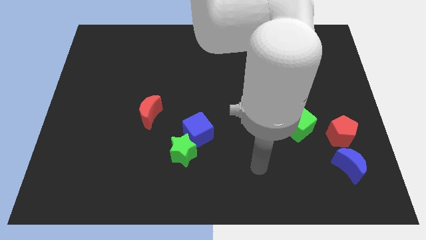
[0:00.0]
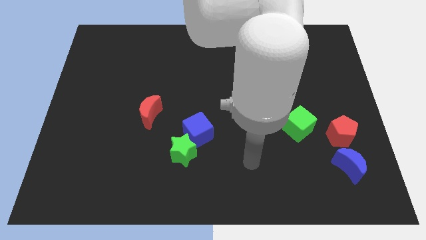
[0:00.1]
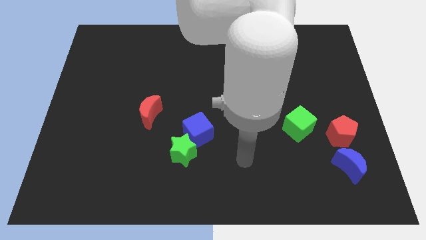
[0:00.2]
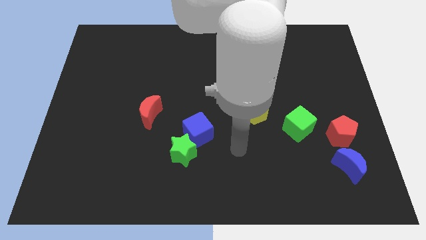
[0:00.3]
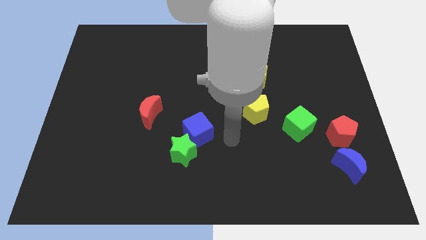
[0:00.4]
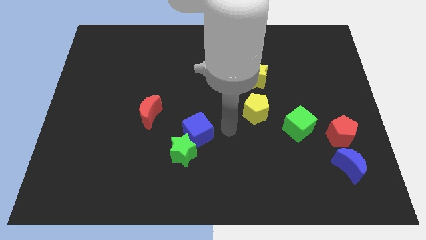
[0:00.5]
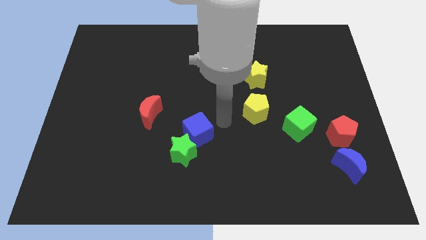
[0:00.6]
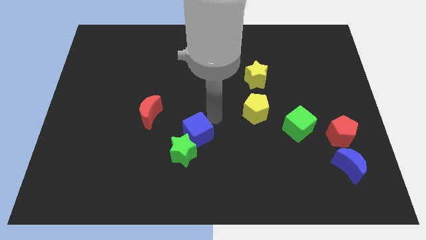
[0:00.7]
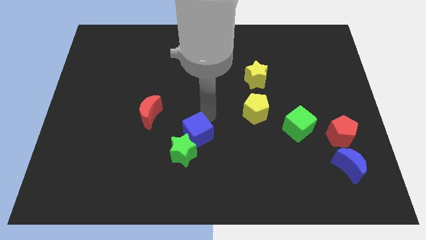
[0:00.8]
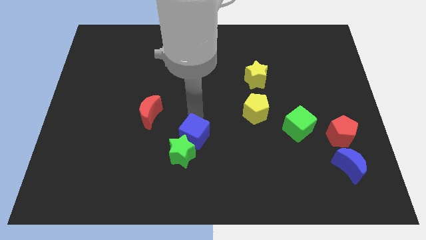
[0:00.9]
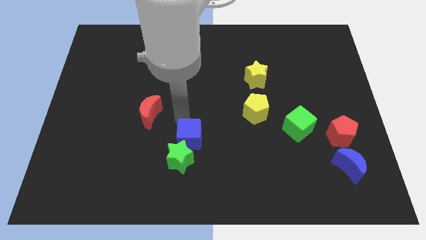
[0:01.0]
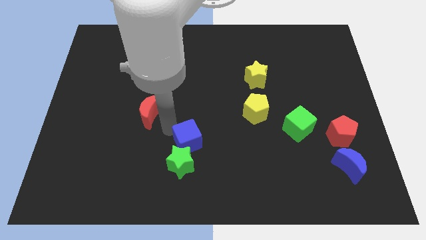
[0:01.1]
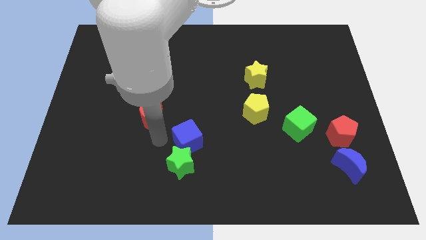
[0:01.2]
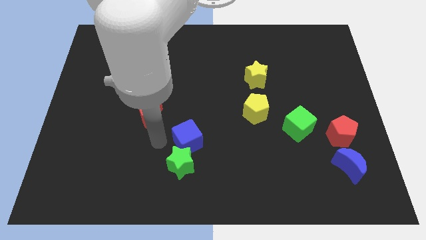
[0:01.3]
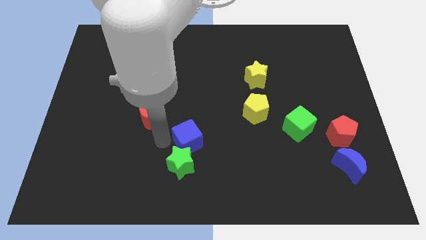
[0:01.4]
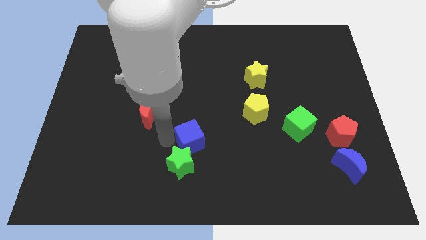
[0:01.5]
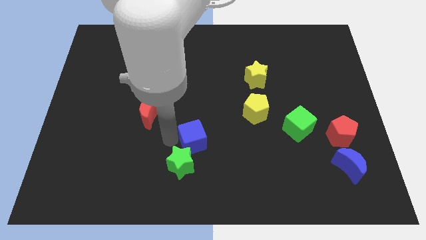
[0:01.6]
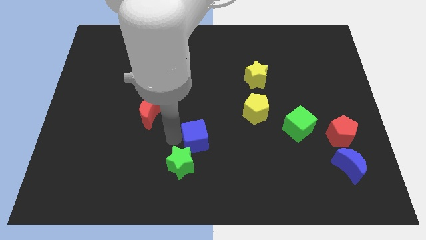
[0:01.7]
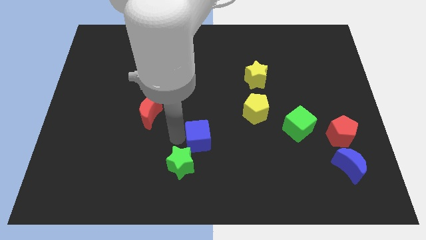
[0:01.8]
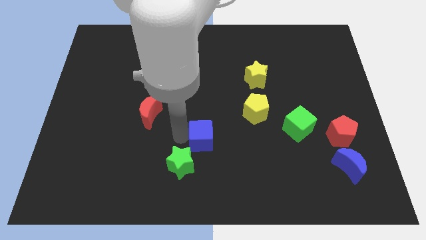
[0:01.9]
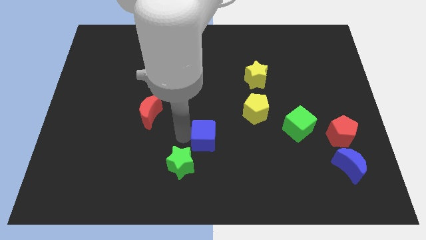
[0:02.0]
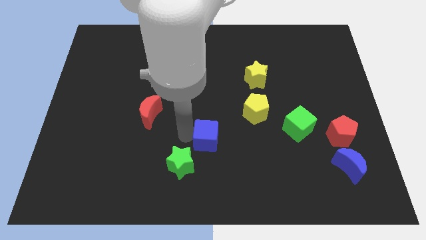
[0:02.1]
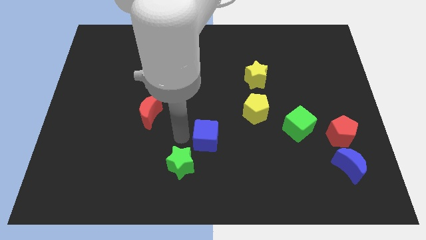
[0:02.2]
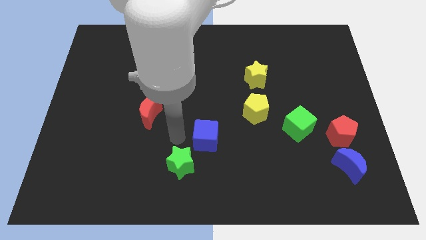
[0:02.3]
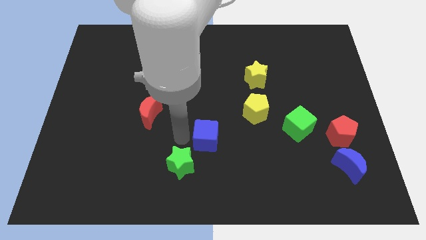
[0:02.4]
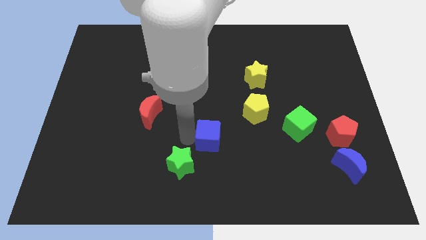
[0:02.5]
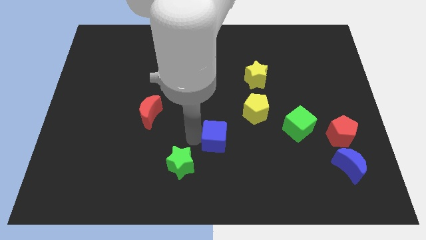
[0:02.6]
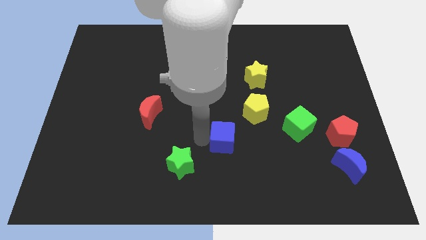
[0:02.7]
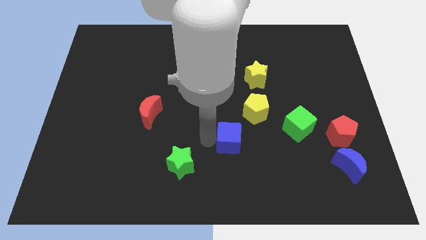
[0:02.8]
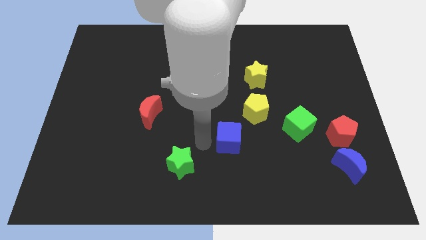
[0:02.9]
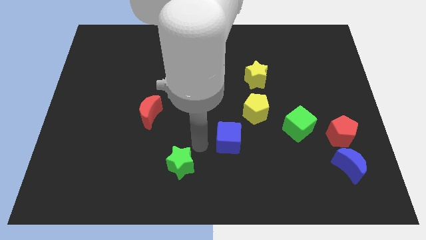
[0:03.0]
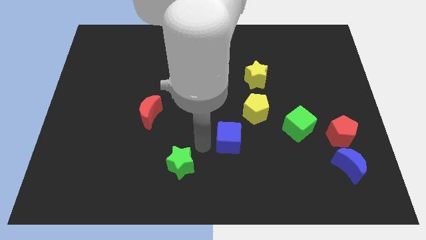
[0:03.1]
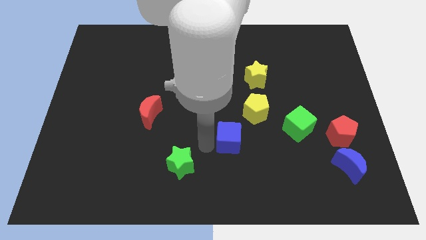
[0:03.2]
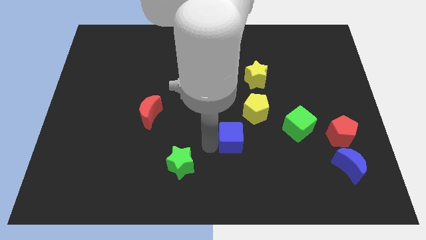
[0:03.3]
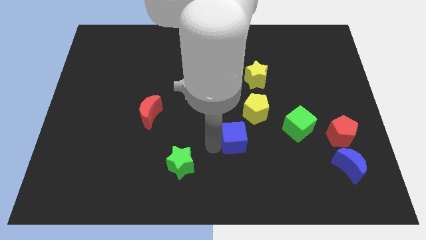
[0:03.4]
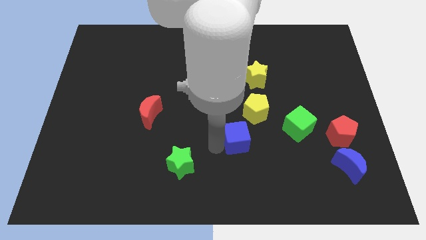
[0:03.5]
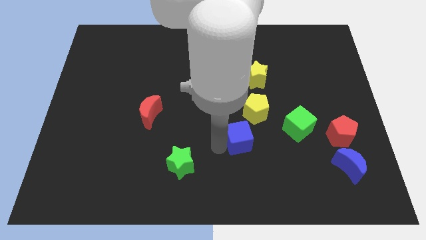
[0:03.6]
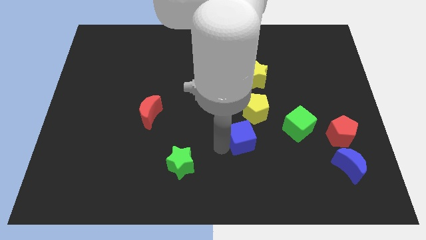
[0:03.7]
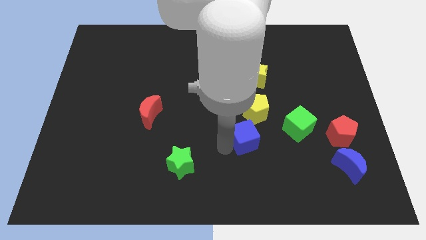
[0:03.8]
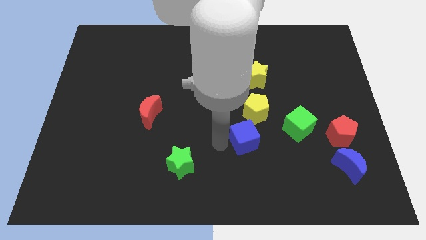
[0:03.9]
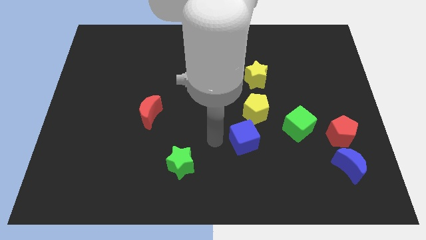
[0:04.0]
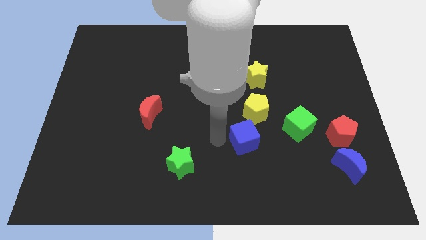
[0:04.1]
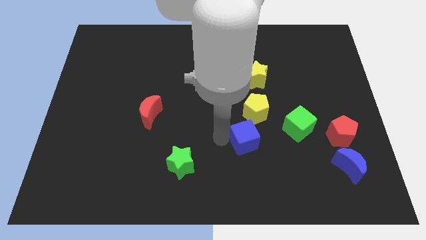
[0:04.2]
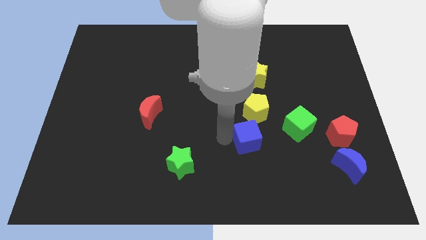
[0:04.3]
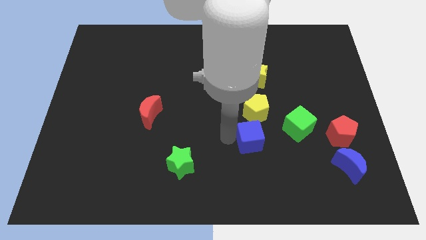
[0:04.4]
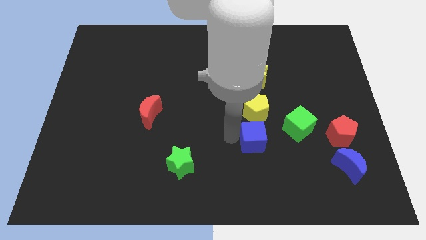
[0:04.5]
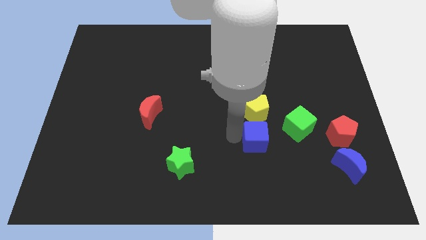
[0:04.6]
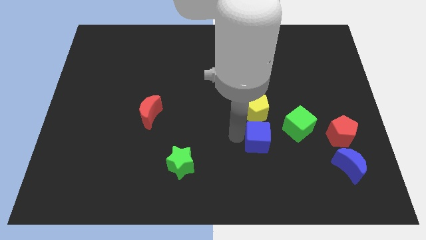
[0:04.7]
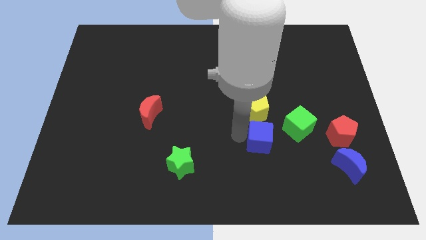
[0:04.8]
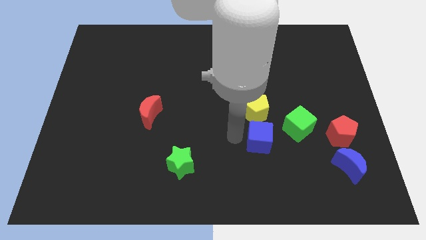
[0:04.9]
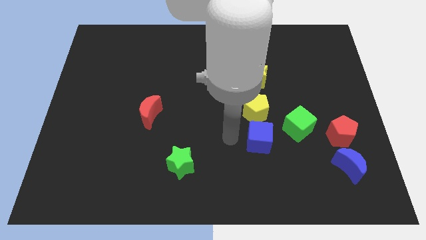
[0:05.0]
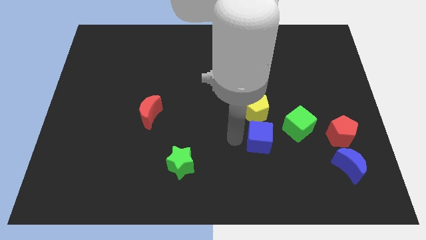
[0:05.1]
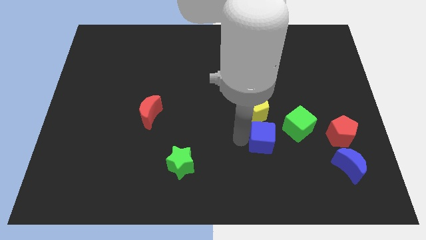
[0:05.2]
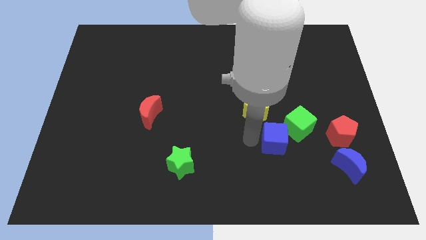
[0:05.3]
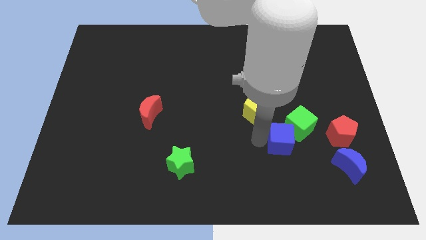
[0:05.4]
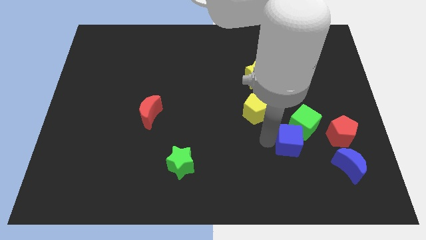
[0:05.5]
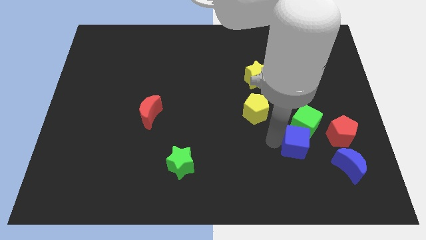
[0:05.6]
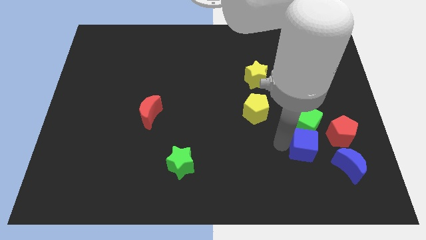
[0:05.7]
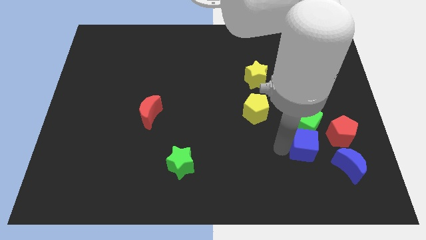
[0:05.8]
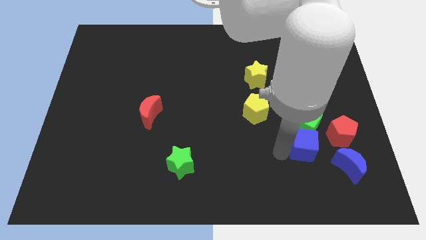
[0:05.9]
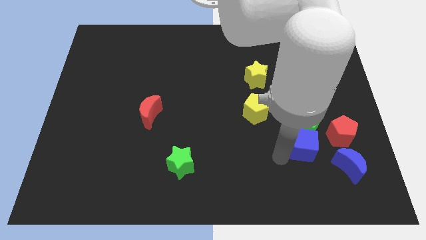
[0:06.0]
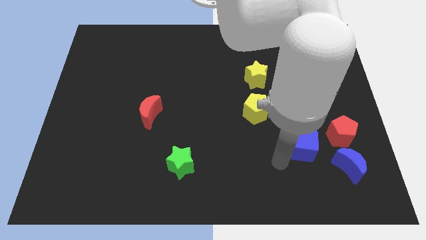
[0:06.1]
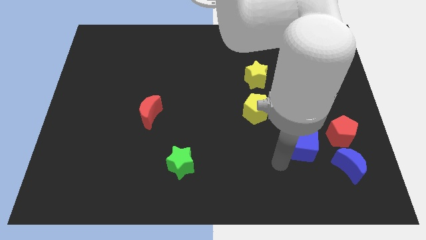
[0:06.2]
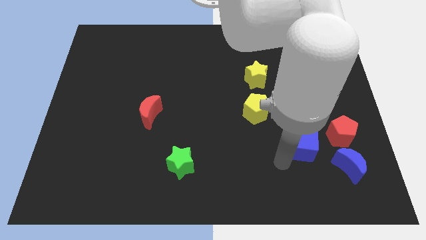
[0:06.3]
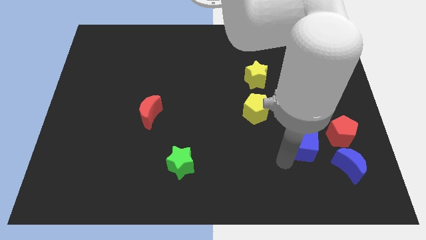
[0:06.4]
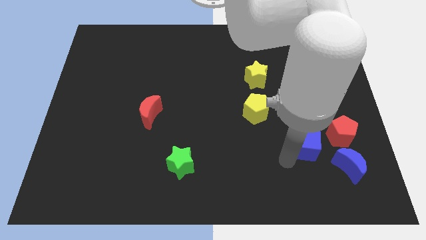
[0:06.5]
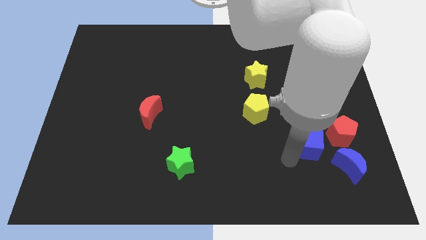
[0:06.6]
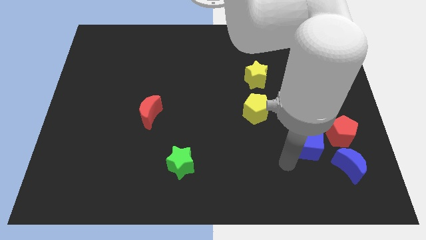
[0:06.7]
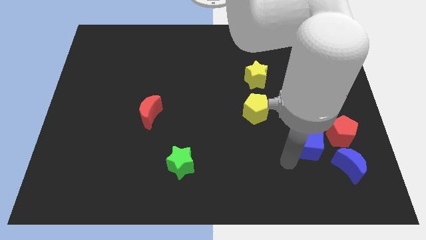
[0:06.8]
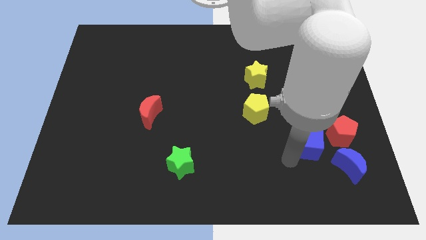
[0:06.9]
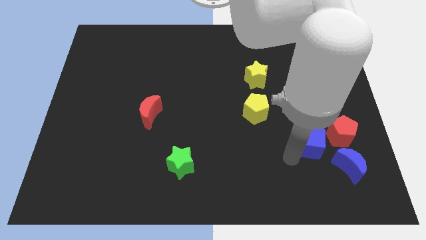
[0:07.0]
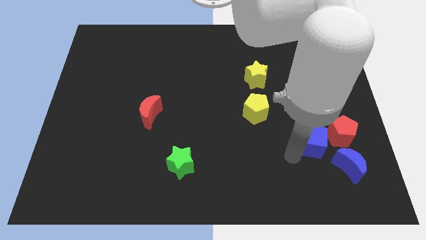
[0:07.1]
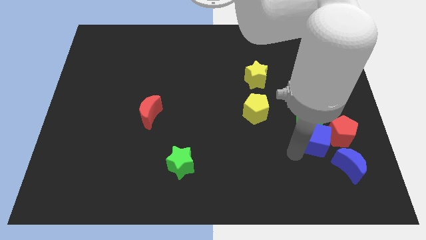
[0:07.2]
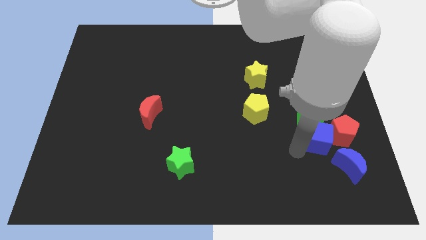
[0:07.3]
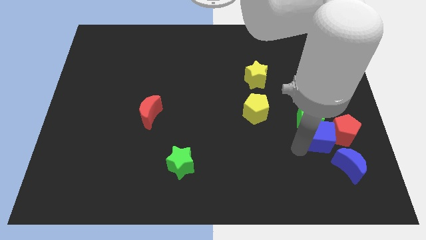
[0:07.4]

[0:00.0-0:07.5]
slide the blue cube to the top of the blue moon
